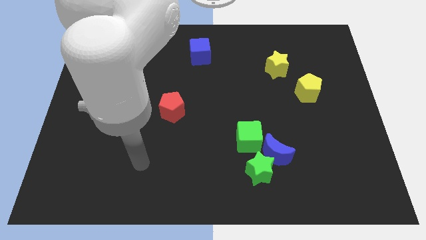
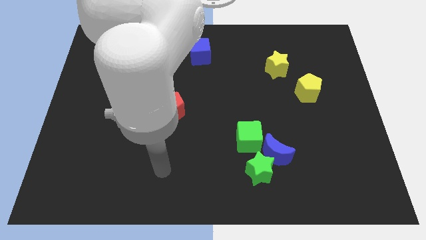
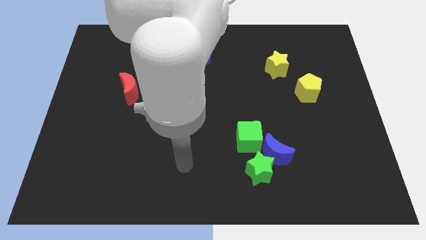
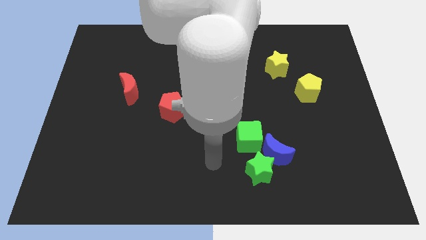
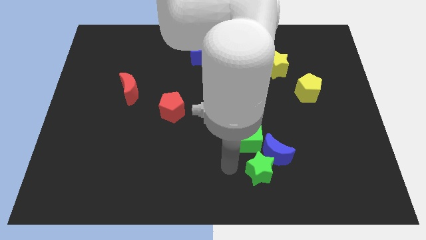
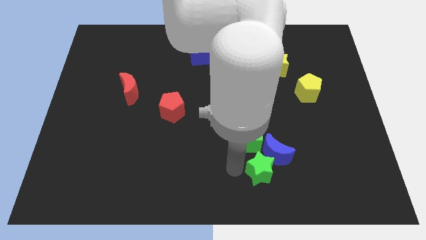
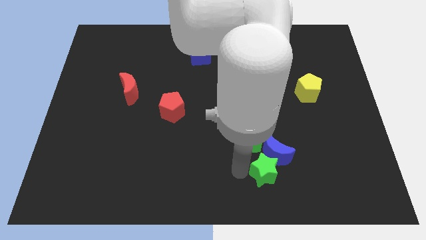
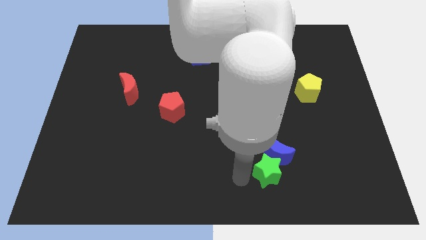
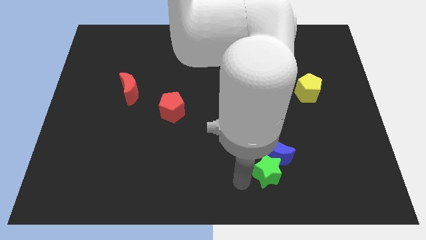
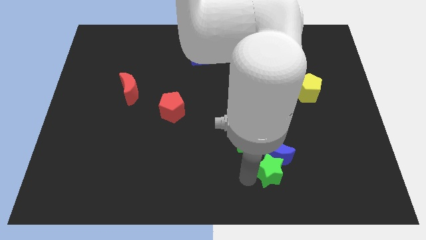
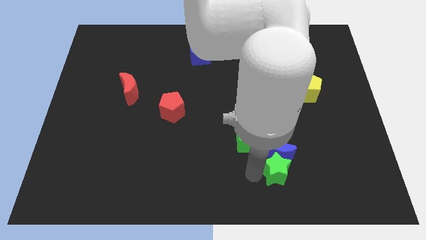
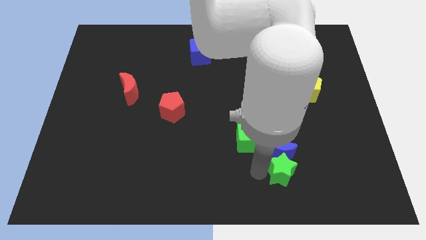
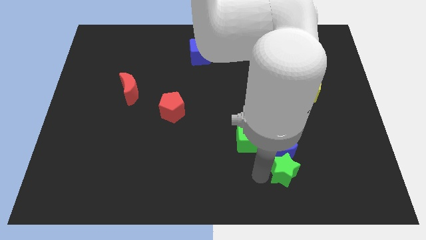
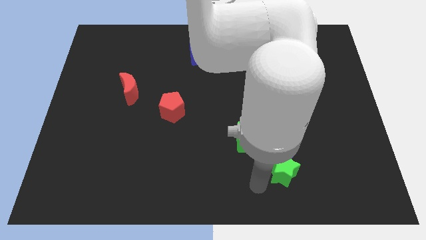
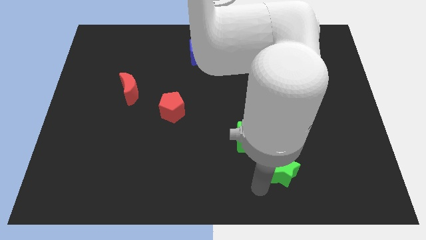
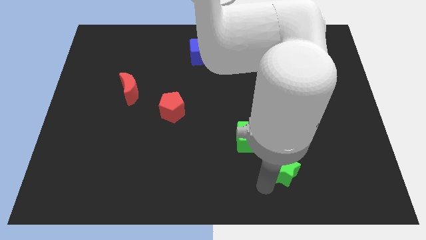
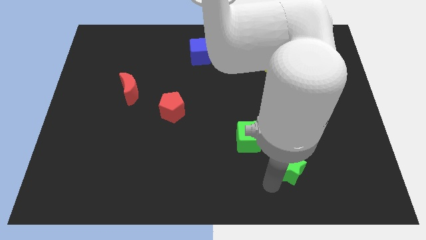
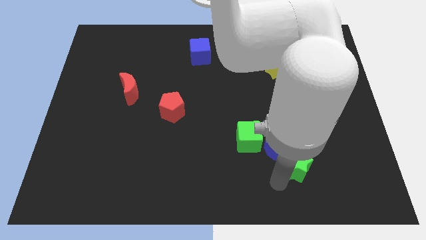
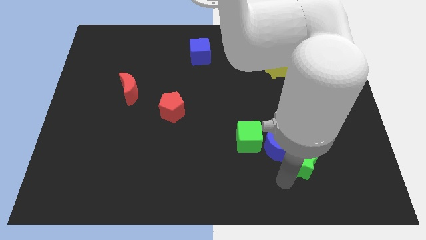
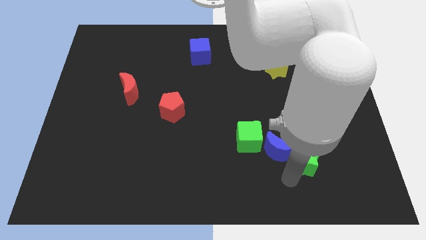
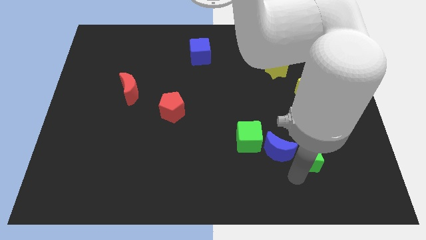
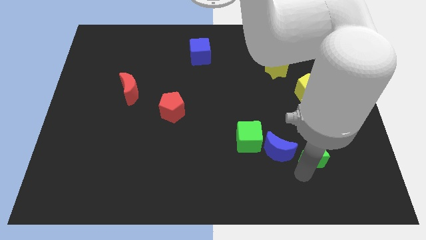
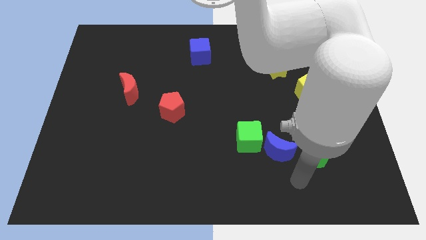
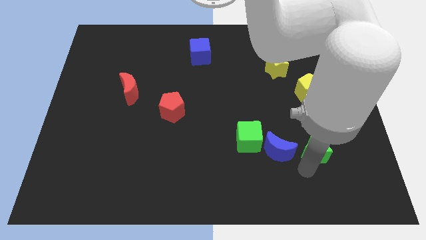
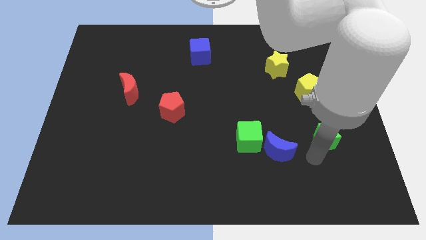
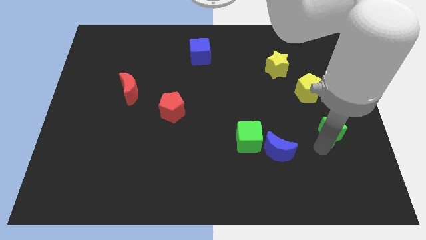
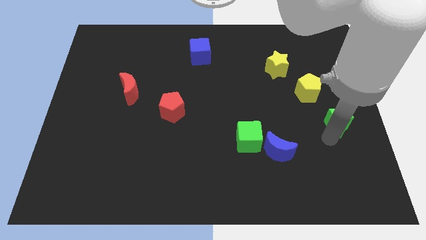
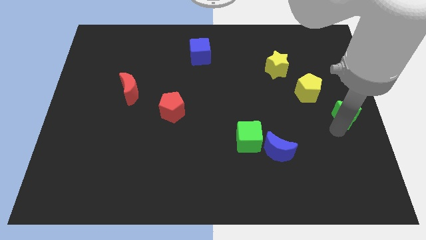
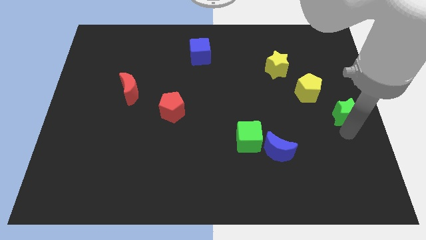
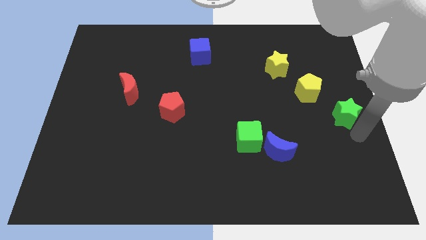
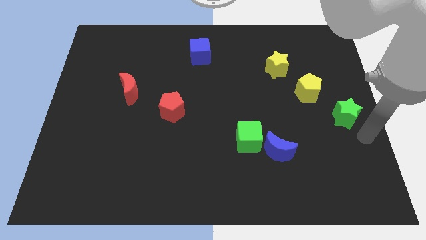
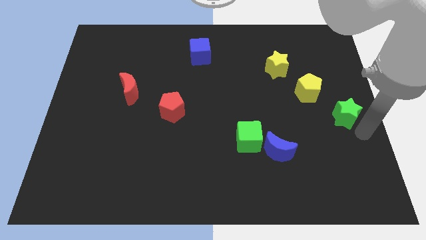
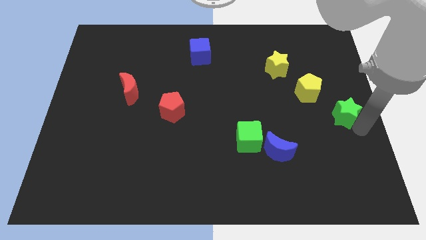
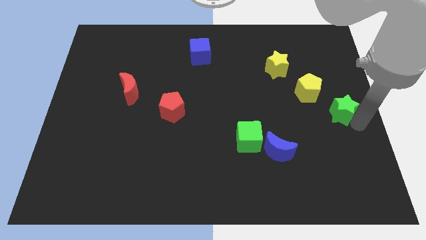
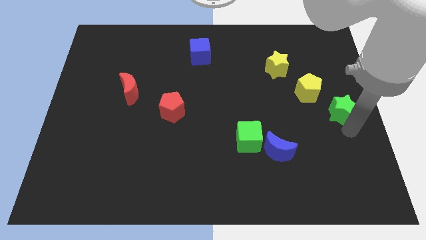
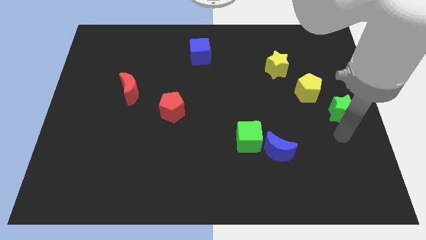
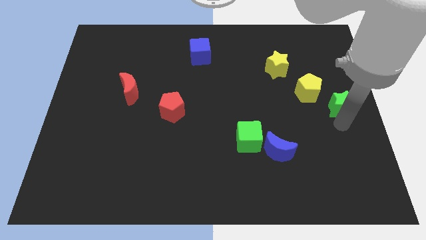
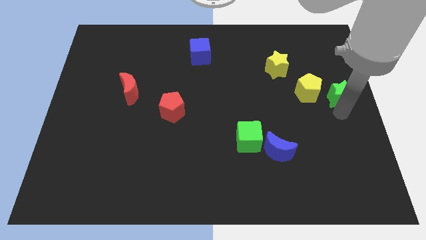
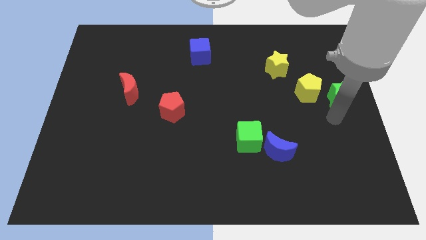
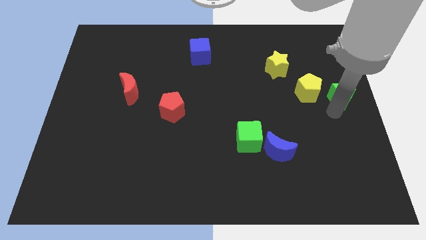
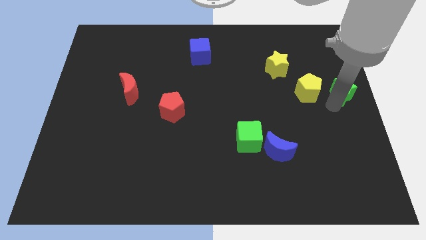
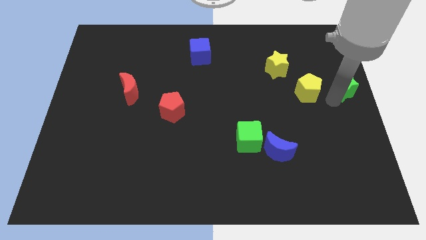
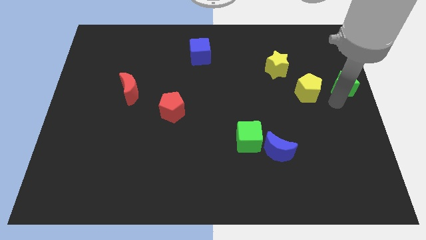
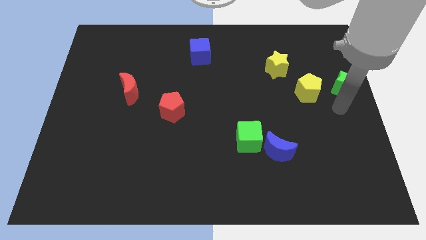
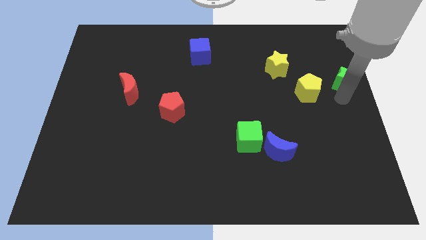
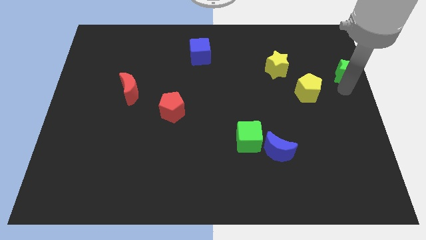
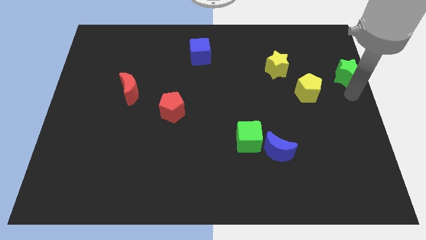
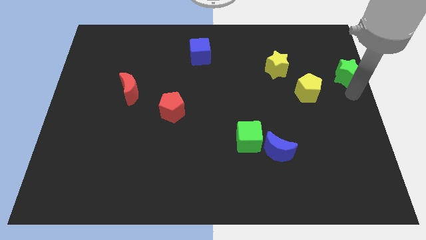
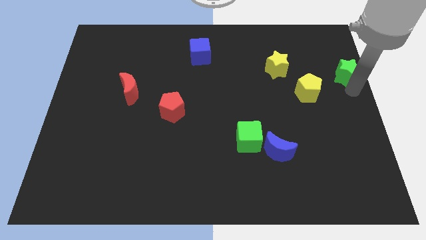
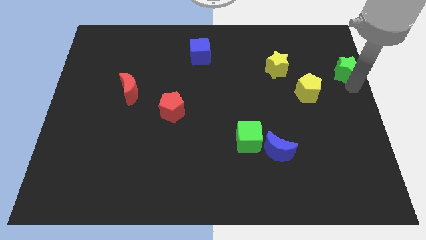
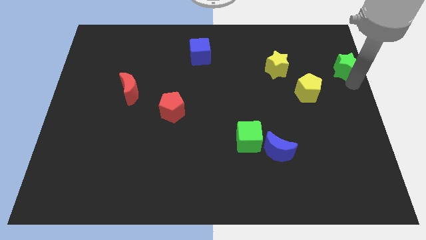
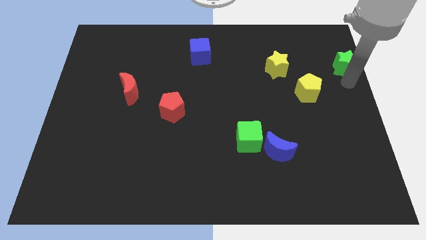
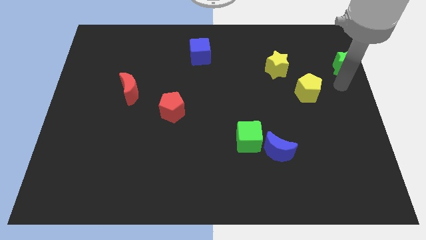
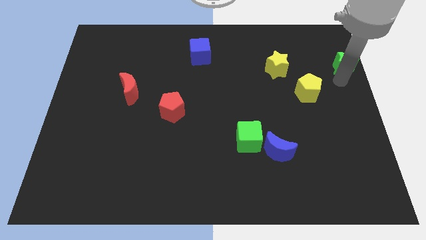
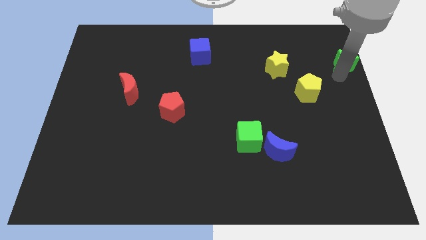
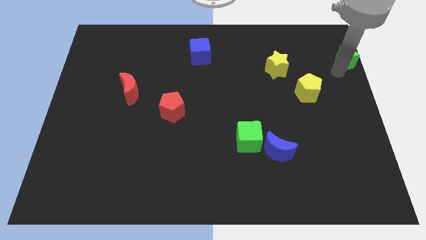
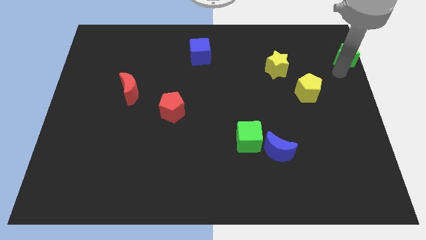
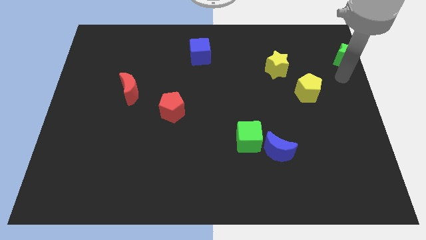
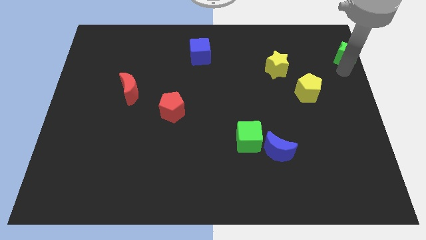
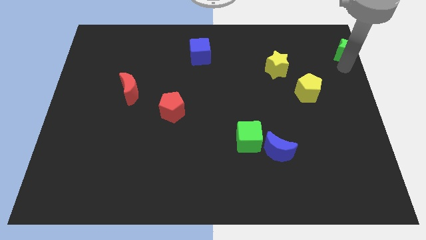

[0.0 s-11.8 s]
move the green star to the top right of the board

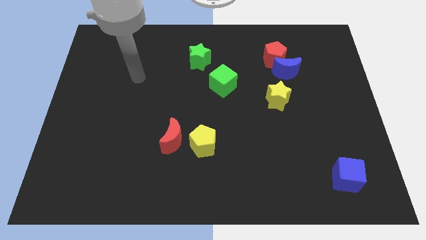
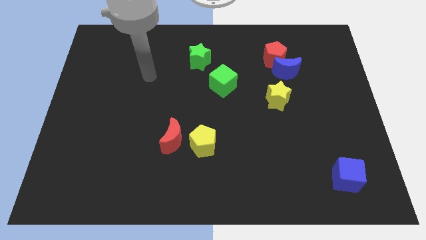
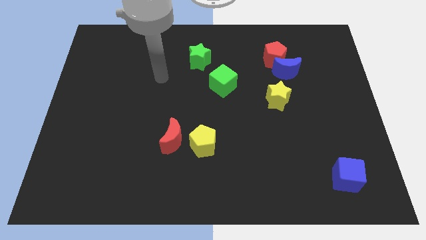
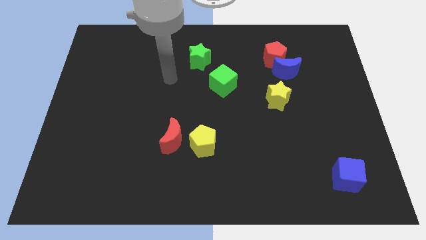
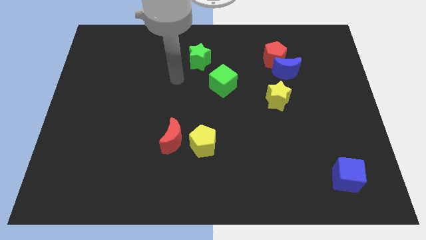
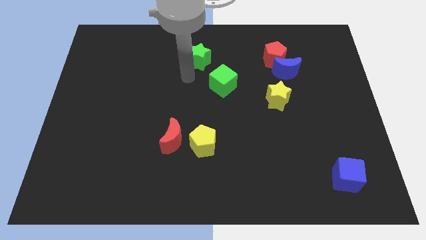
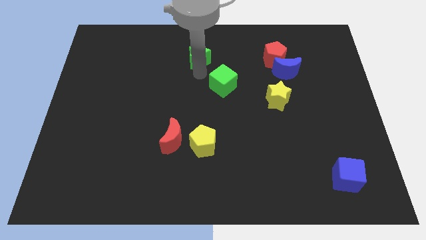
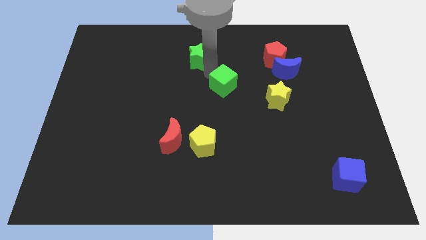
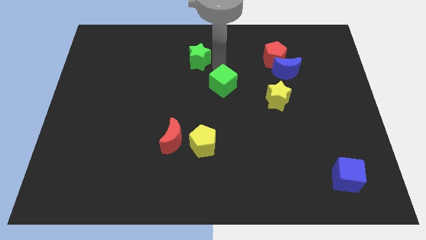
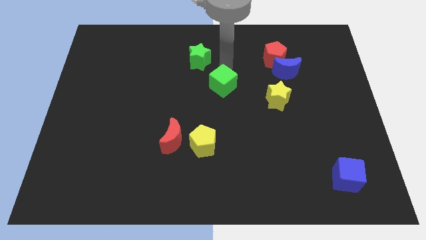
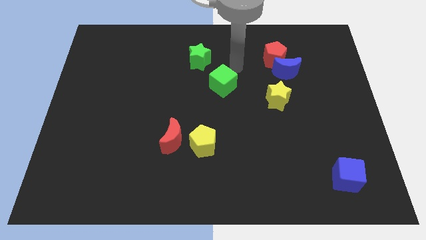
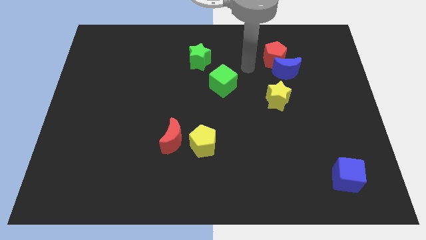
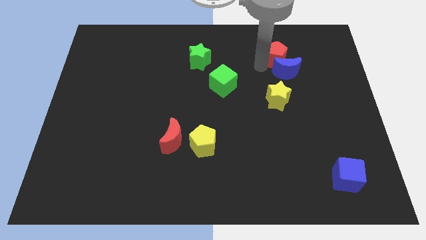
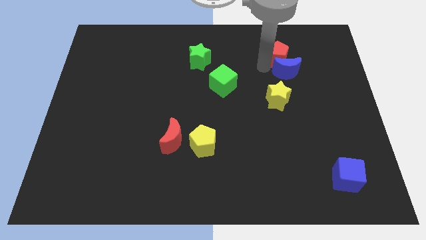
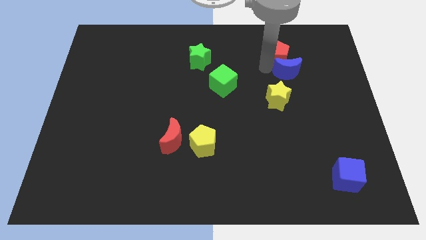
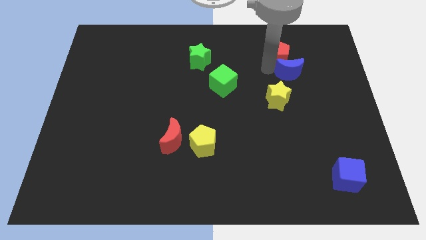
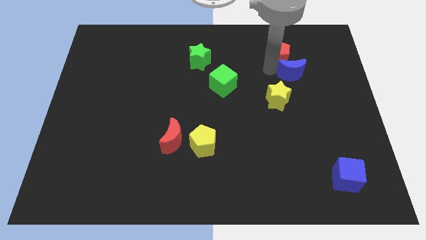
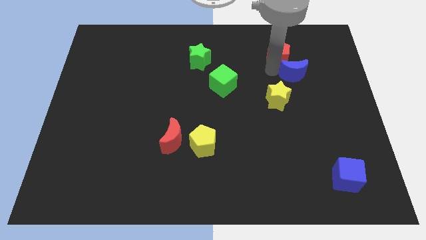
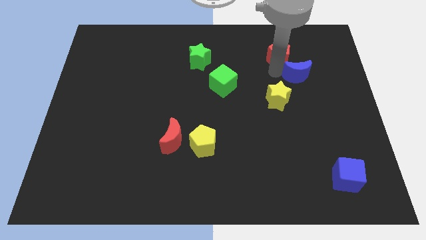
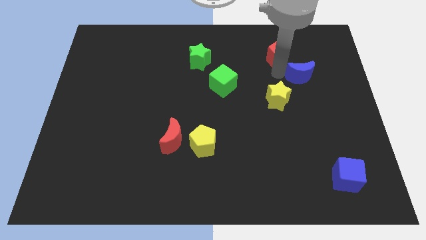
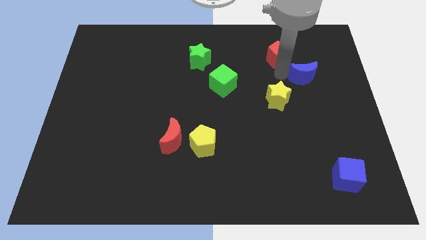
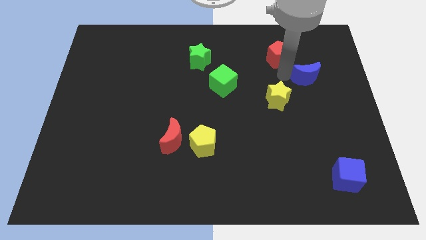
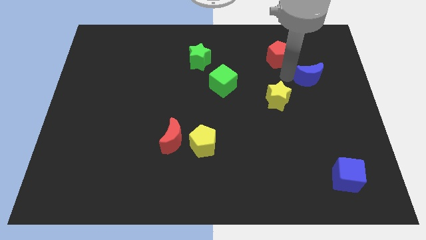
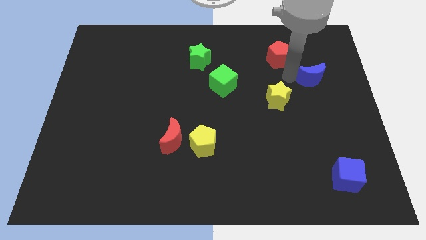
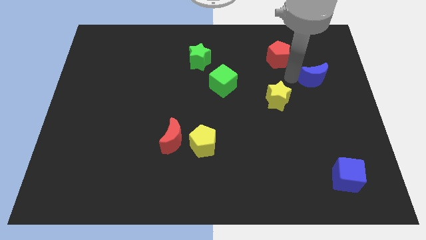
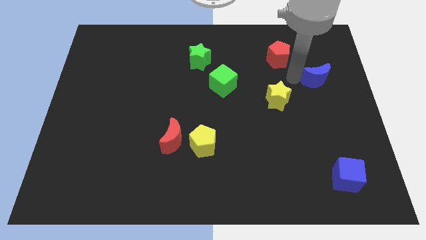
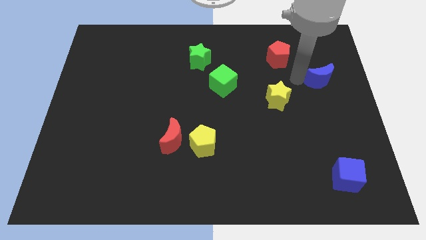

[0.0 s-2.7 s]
push the blue moon to the center right
